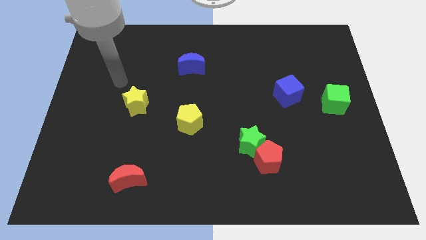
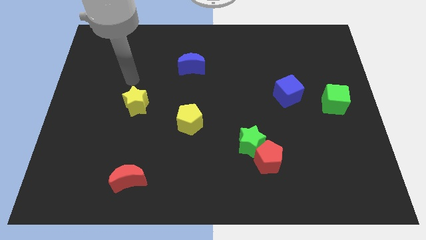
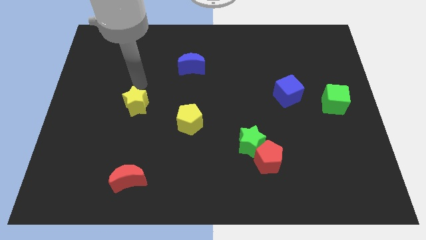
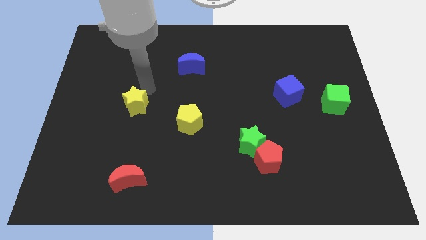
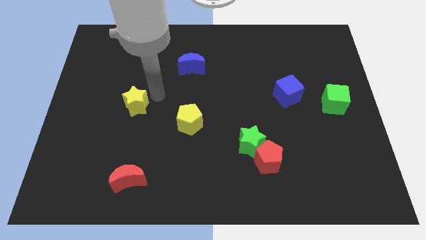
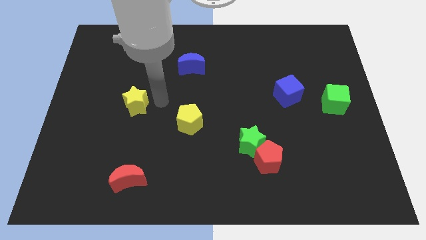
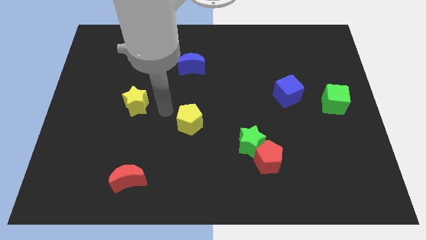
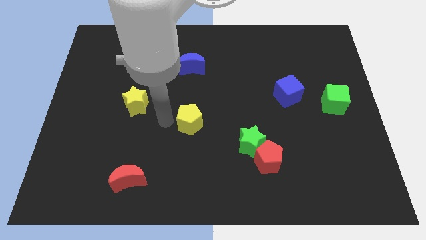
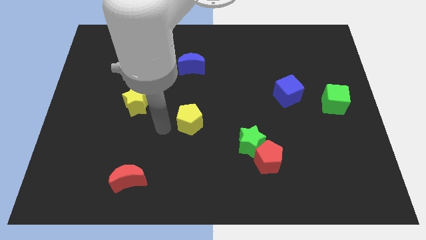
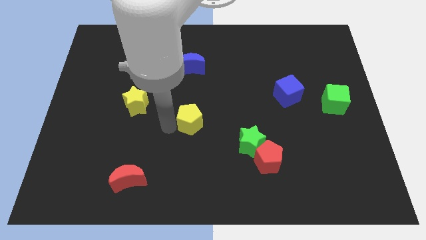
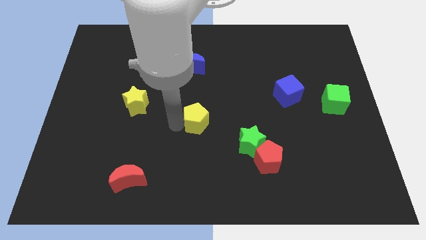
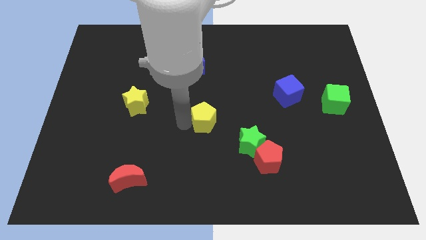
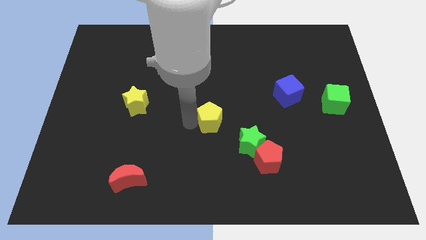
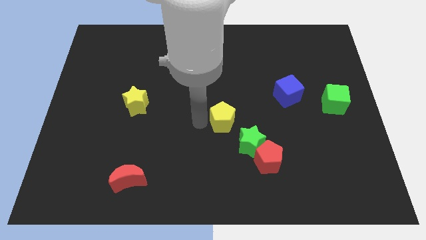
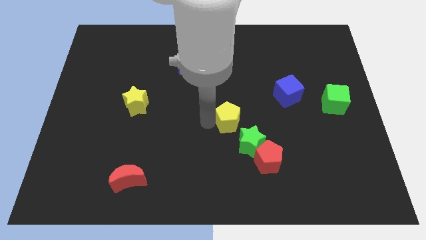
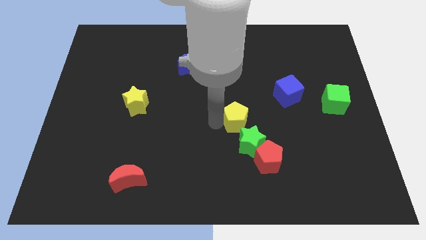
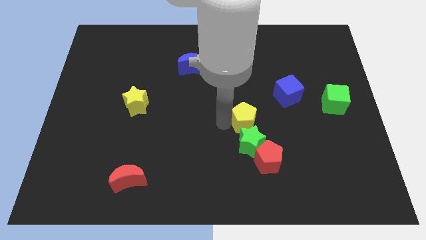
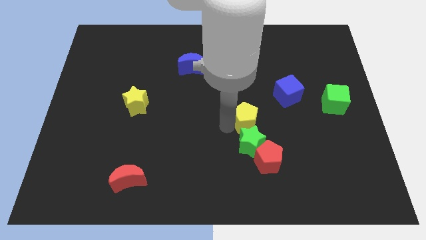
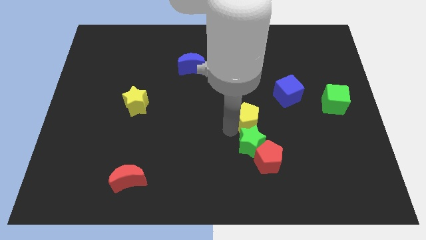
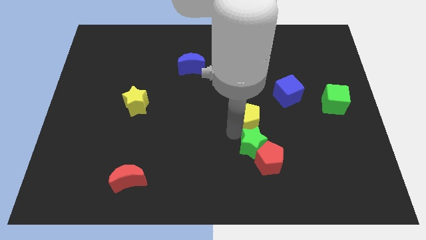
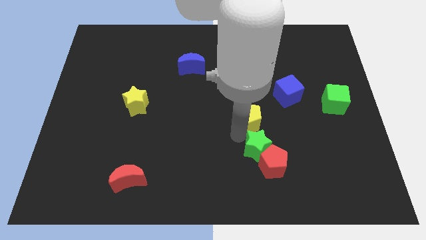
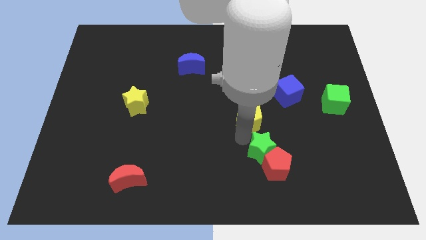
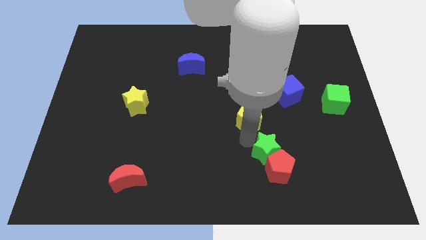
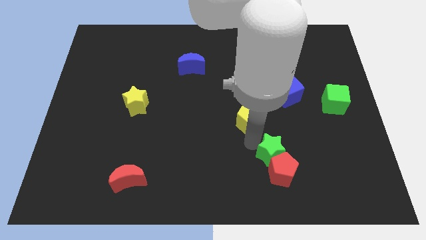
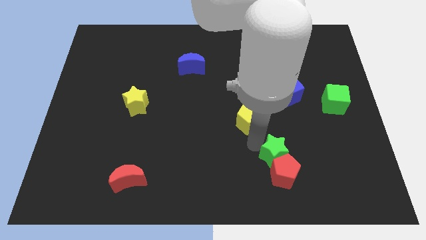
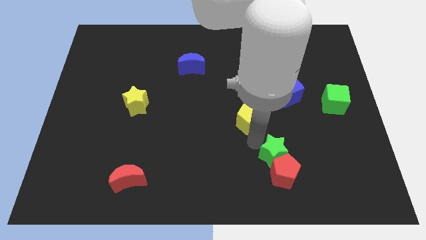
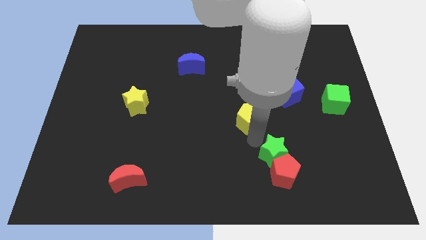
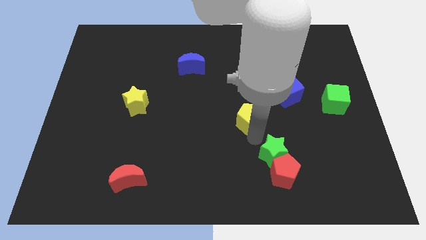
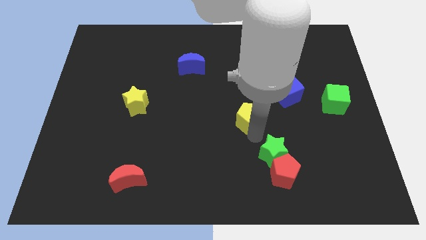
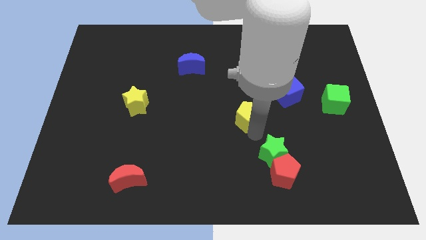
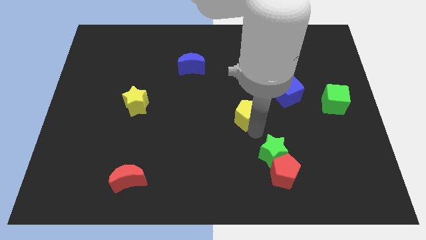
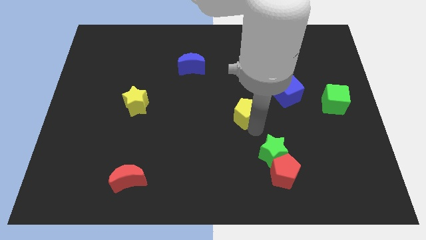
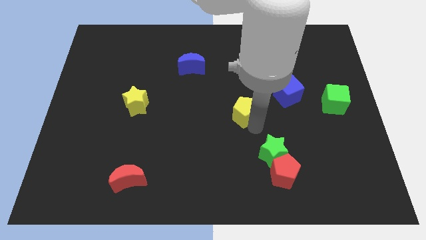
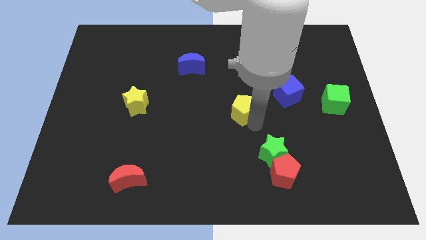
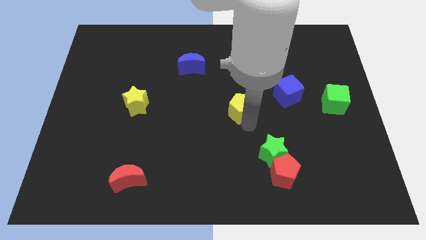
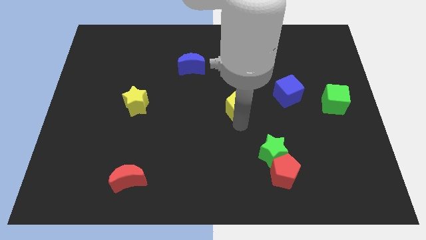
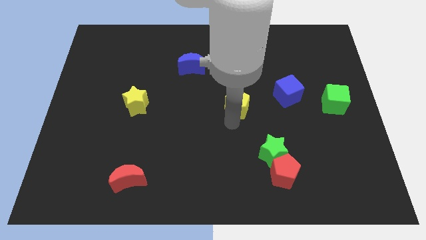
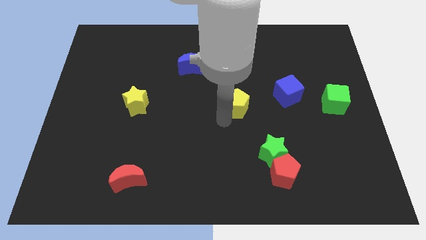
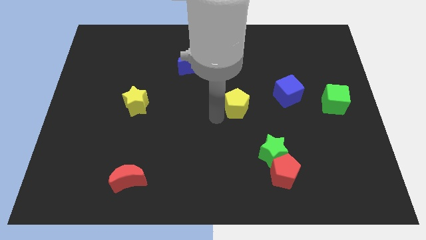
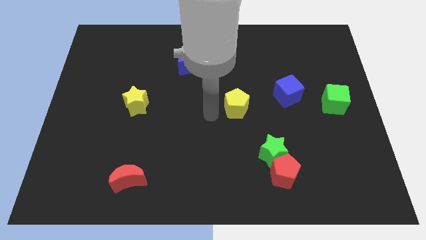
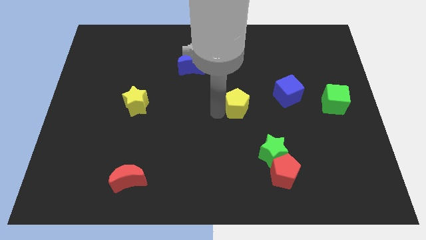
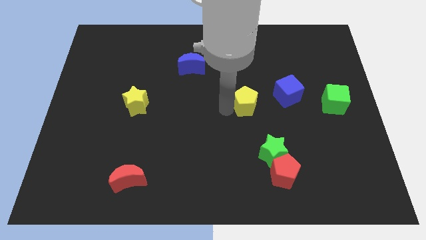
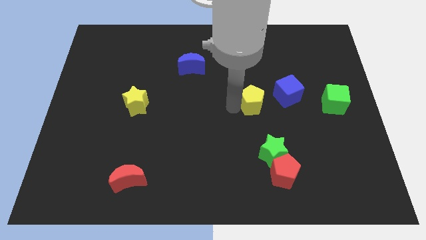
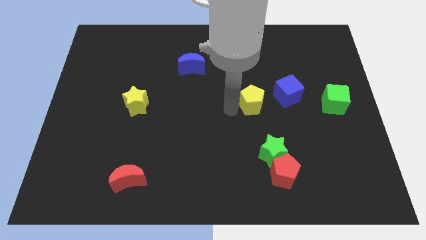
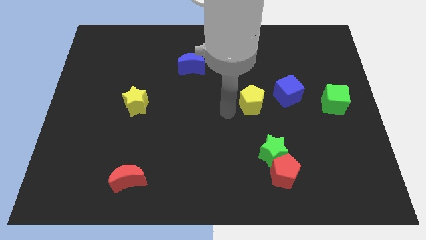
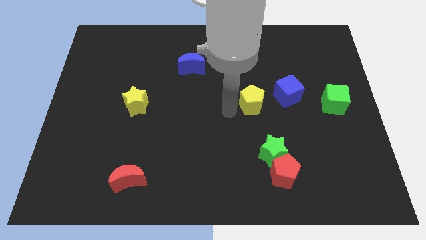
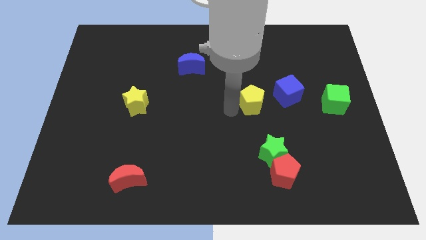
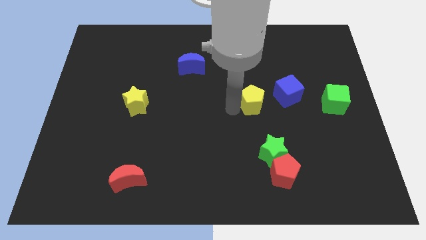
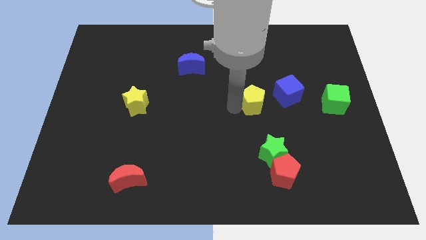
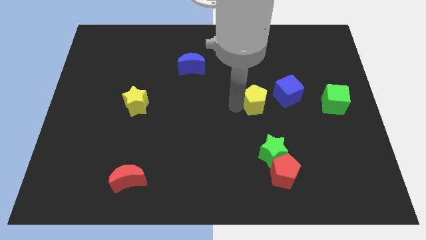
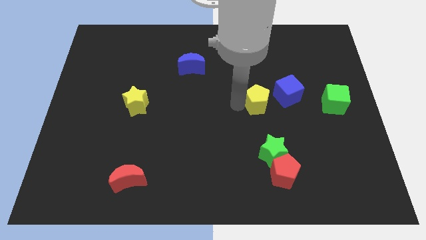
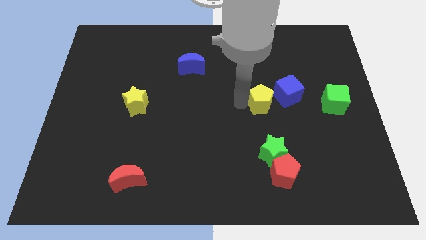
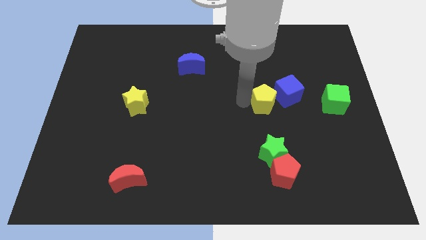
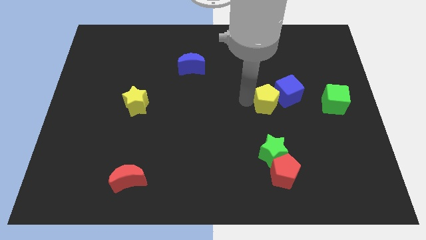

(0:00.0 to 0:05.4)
put the yellow pentagon towards the blue cube

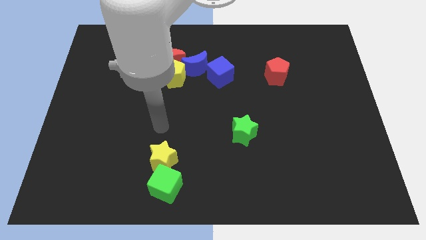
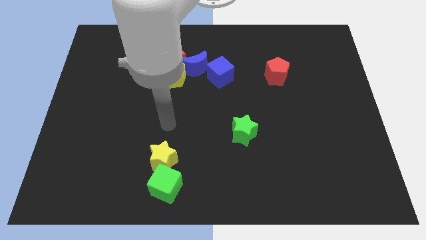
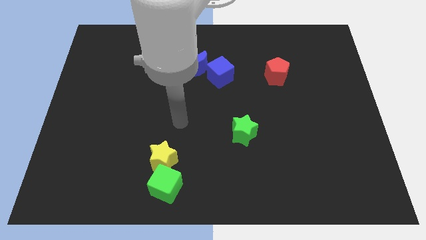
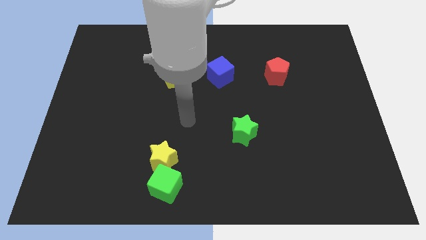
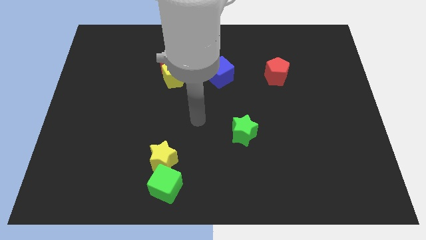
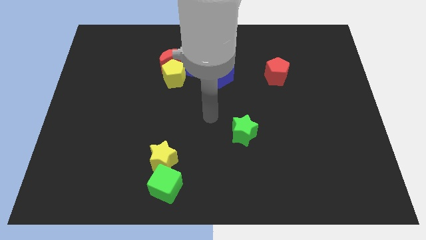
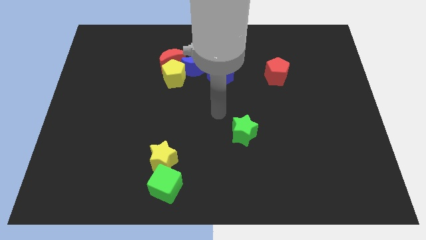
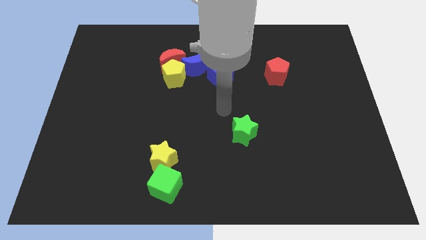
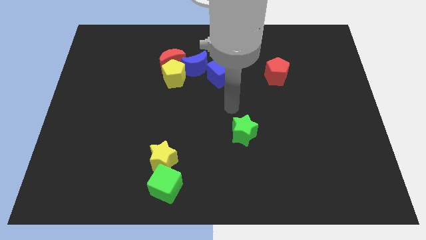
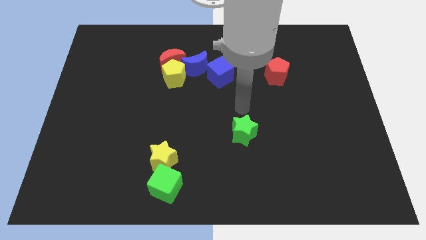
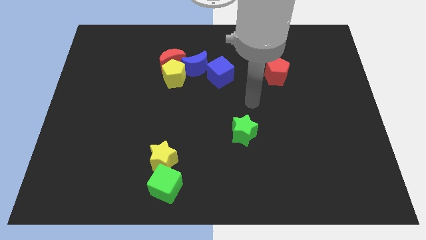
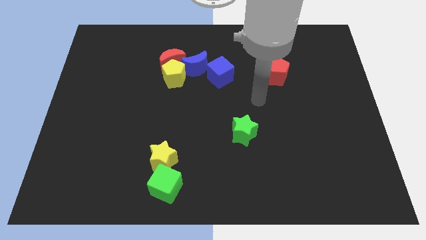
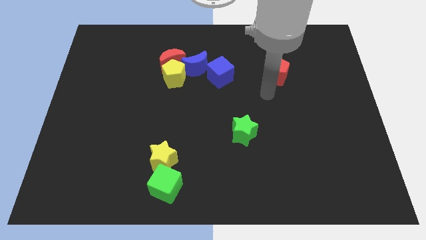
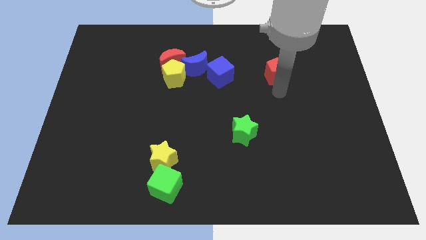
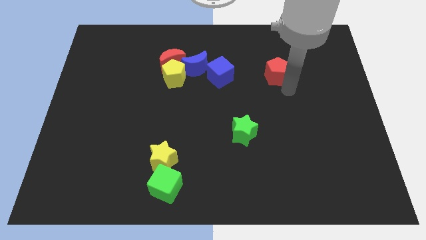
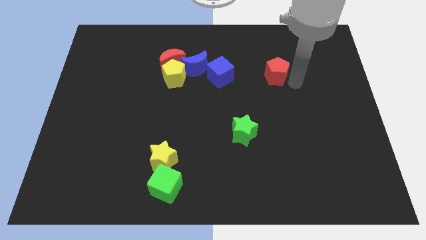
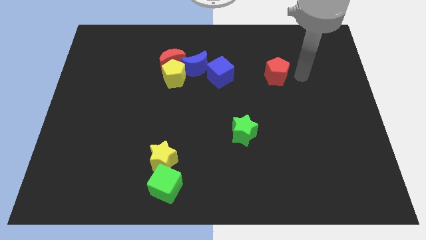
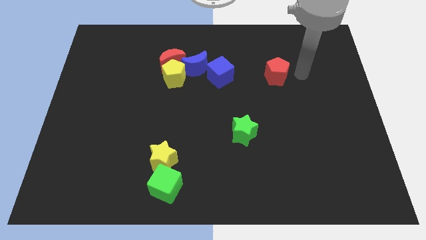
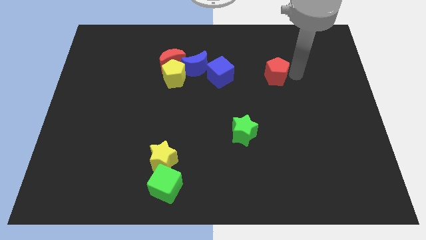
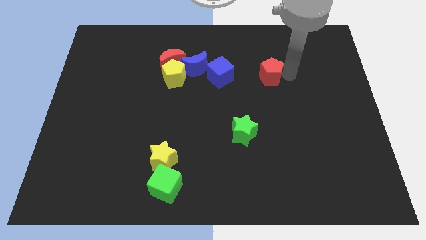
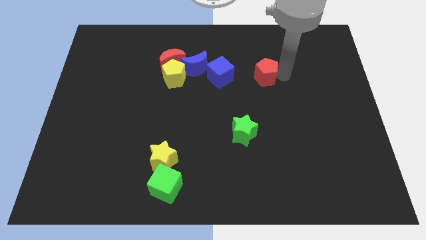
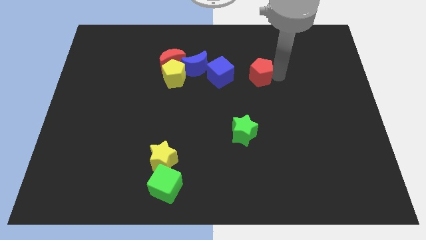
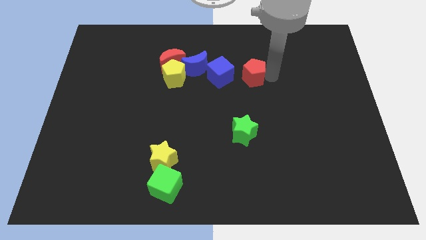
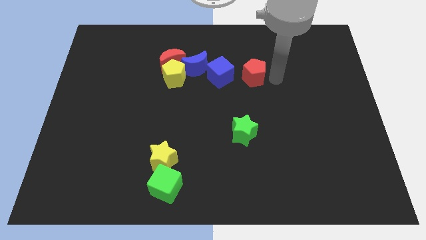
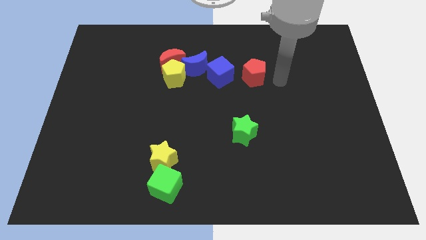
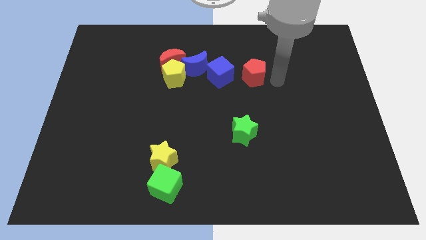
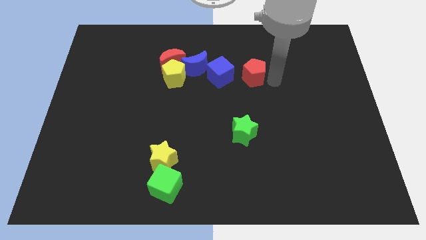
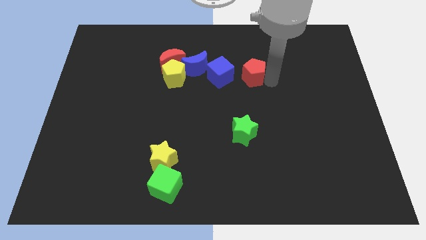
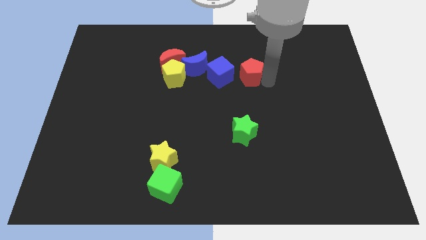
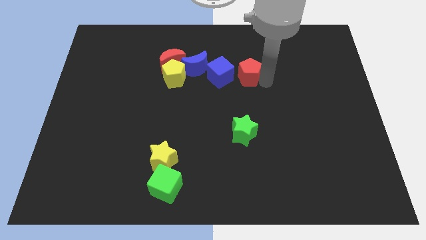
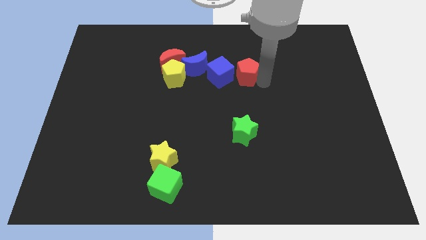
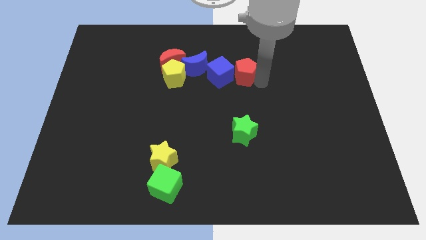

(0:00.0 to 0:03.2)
slide the red pentagon next to the blue cube
